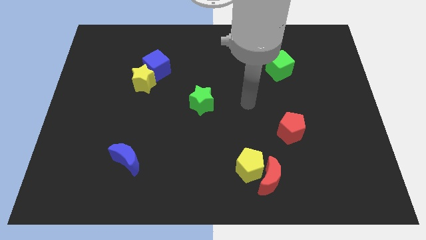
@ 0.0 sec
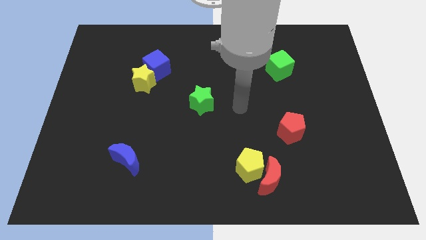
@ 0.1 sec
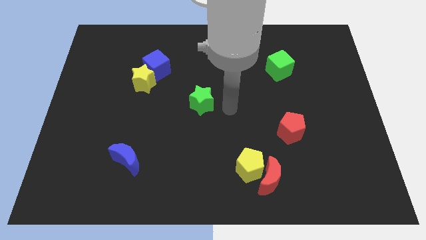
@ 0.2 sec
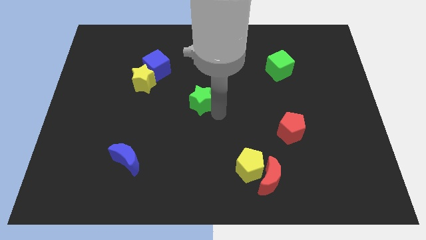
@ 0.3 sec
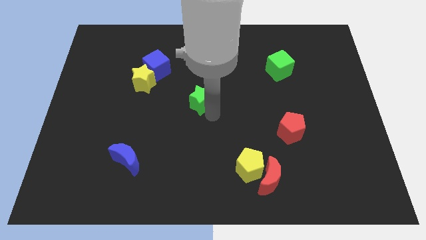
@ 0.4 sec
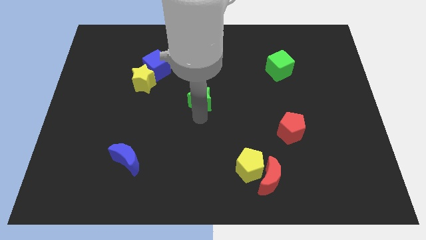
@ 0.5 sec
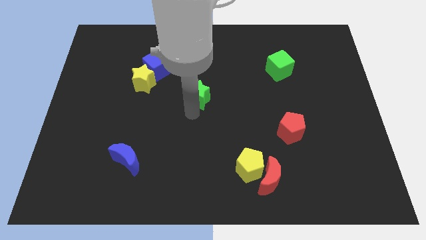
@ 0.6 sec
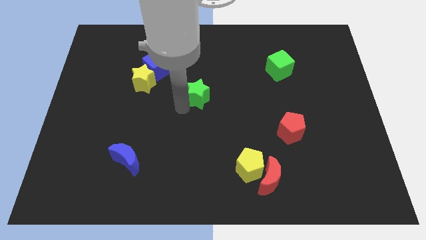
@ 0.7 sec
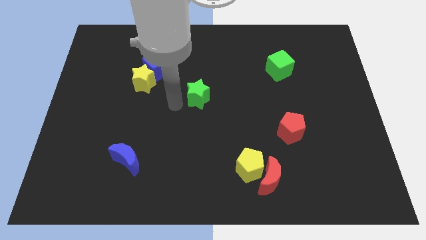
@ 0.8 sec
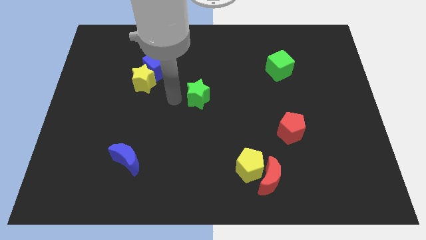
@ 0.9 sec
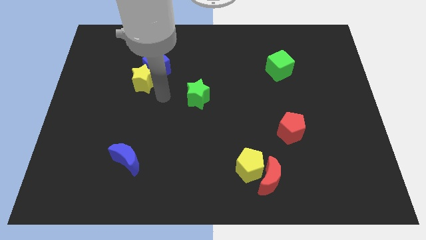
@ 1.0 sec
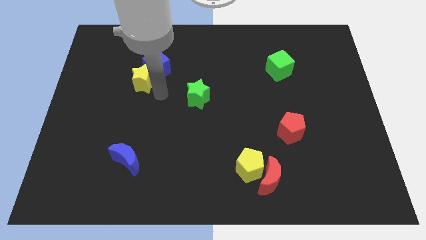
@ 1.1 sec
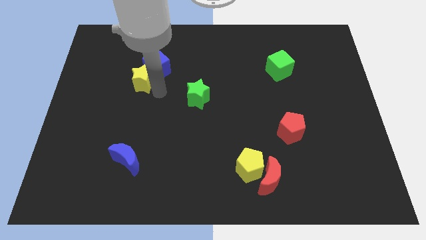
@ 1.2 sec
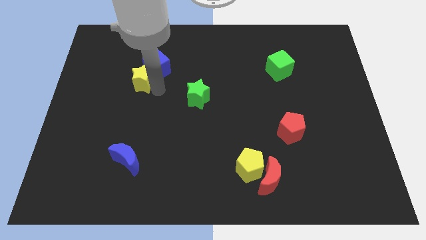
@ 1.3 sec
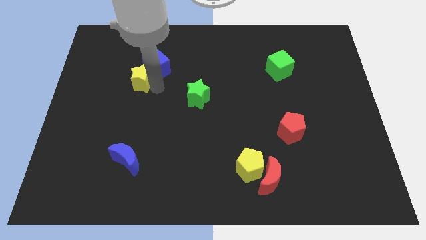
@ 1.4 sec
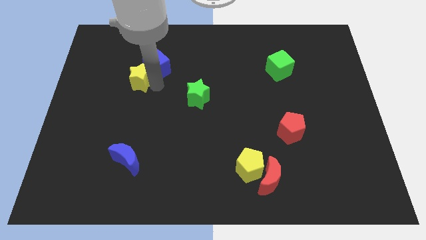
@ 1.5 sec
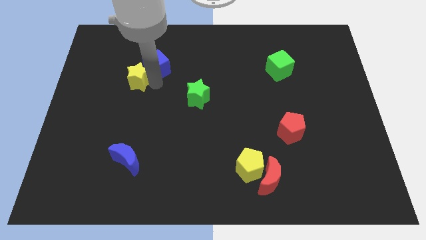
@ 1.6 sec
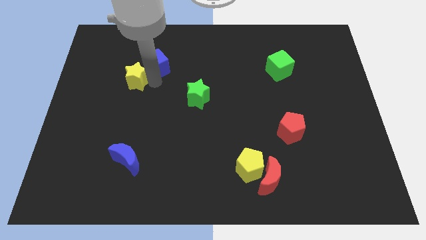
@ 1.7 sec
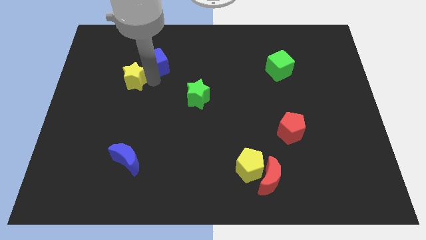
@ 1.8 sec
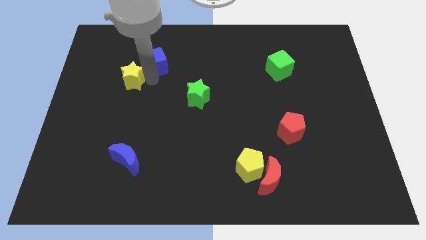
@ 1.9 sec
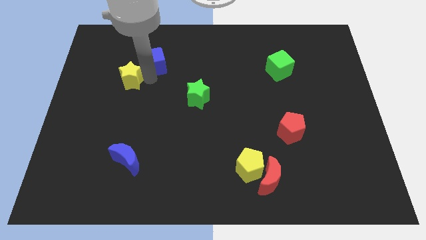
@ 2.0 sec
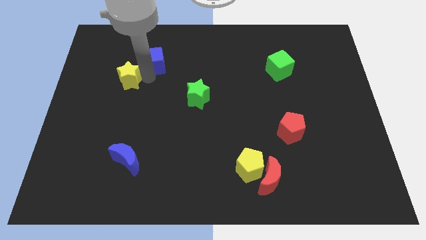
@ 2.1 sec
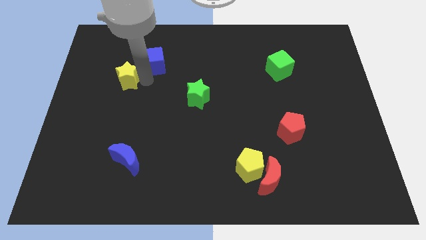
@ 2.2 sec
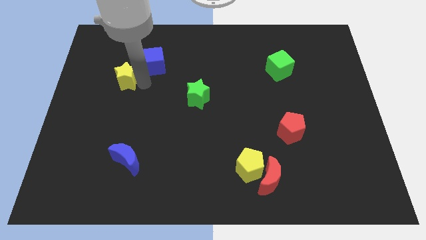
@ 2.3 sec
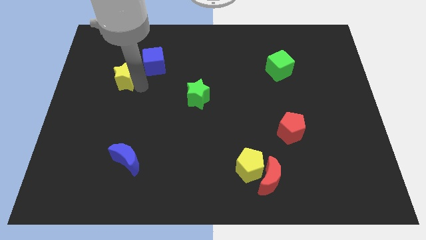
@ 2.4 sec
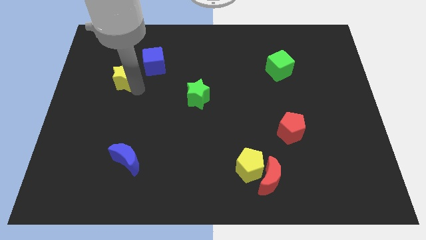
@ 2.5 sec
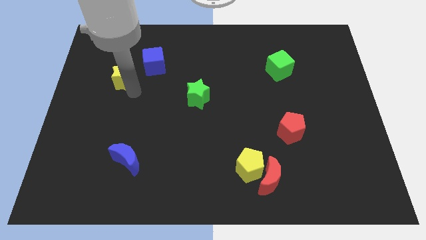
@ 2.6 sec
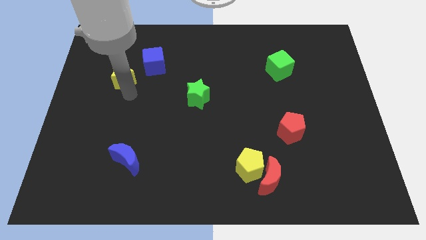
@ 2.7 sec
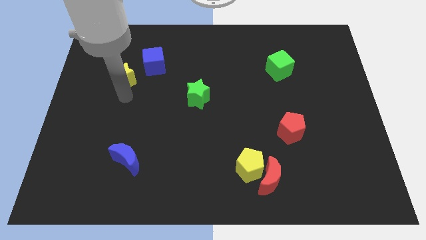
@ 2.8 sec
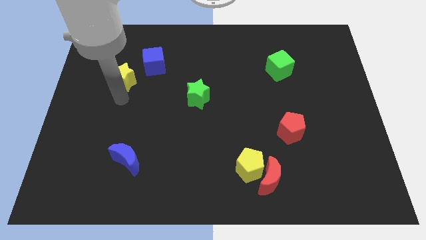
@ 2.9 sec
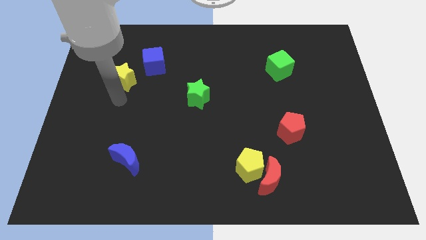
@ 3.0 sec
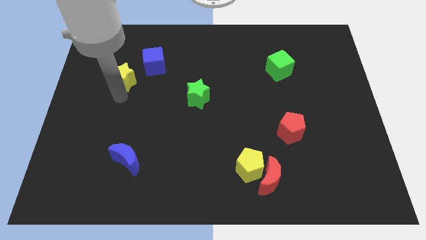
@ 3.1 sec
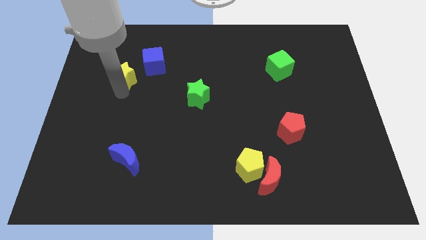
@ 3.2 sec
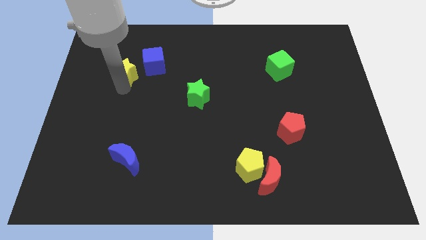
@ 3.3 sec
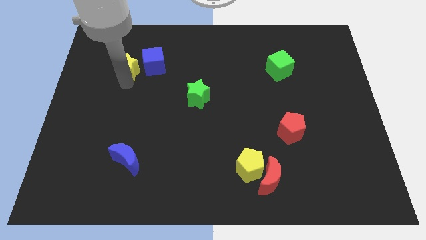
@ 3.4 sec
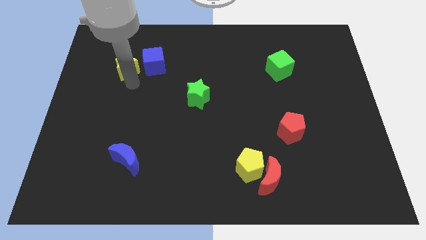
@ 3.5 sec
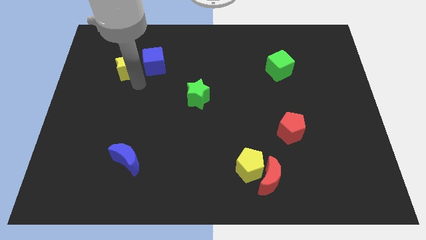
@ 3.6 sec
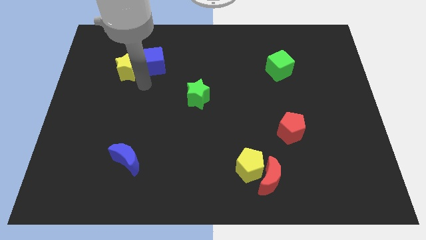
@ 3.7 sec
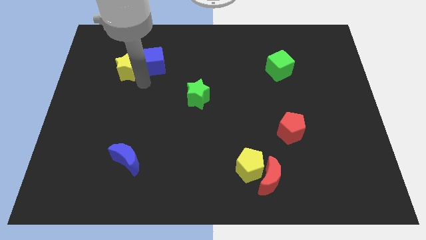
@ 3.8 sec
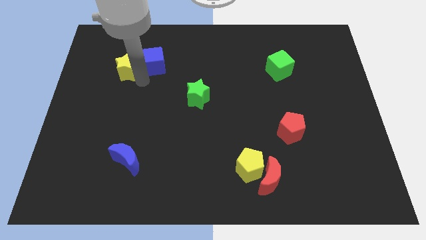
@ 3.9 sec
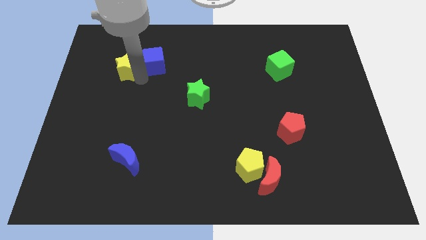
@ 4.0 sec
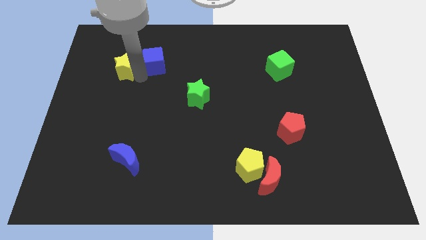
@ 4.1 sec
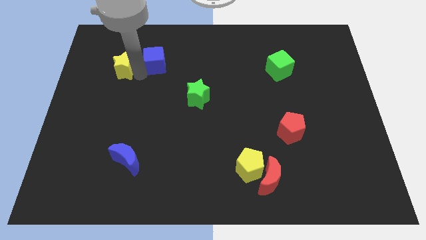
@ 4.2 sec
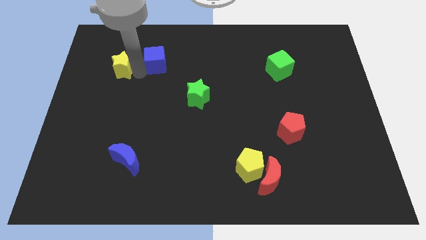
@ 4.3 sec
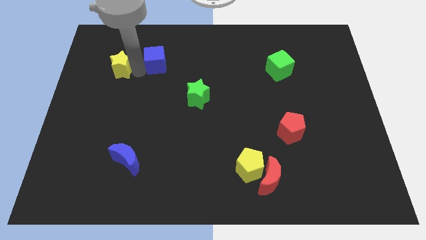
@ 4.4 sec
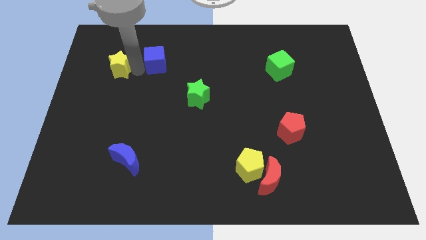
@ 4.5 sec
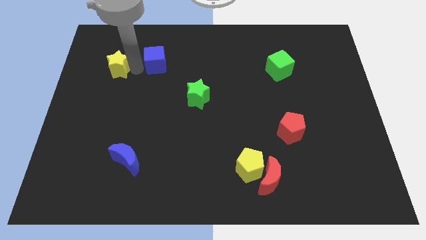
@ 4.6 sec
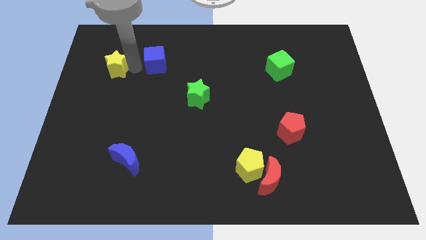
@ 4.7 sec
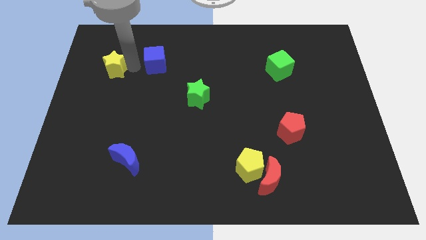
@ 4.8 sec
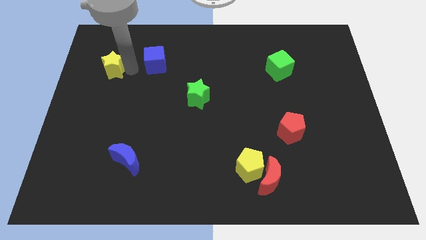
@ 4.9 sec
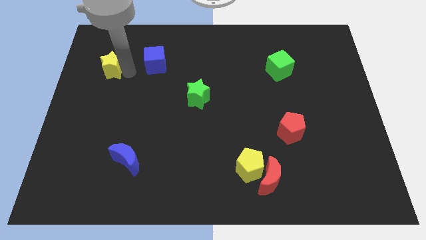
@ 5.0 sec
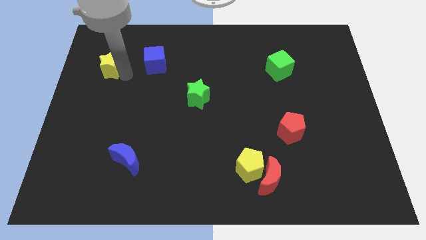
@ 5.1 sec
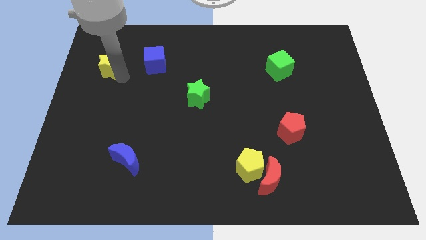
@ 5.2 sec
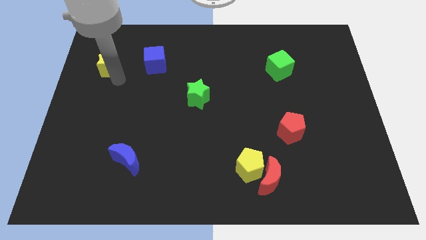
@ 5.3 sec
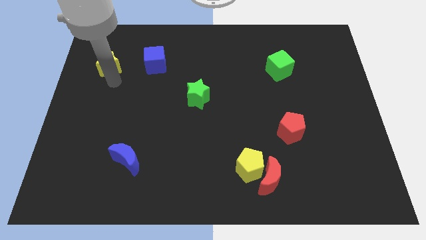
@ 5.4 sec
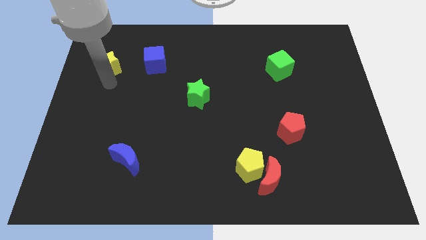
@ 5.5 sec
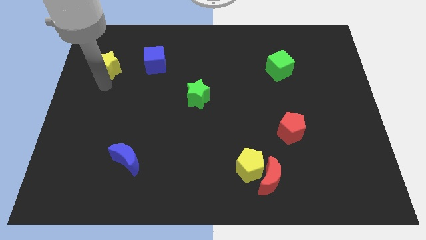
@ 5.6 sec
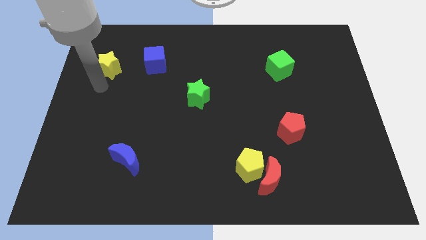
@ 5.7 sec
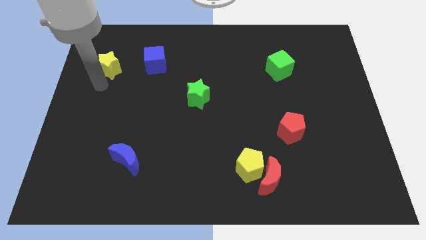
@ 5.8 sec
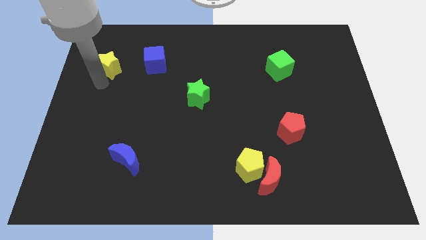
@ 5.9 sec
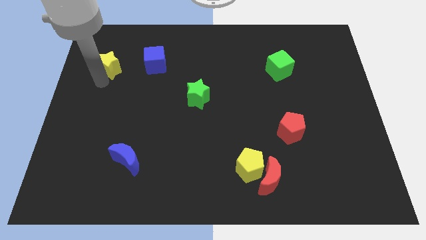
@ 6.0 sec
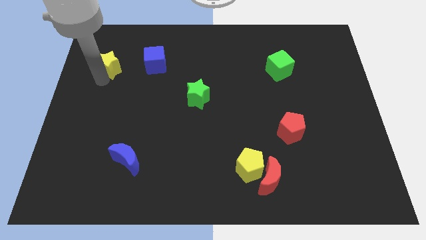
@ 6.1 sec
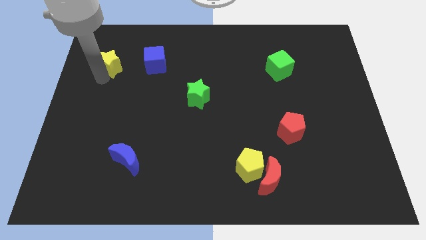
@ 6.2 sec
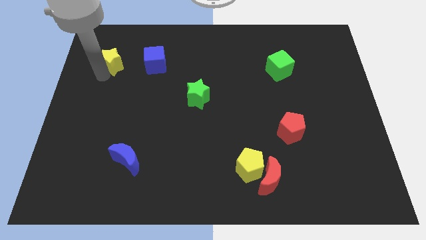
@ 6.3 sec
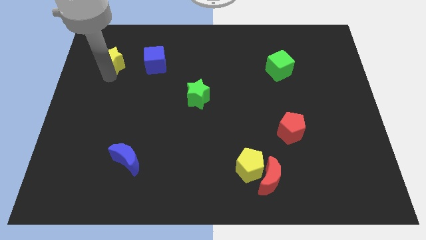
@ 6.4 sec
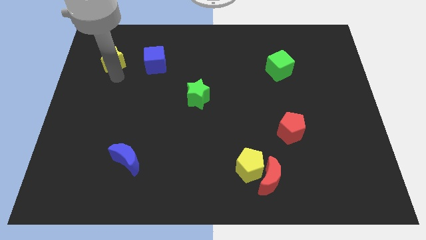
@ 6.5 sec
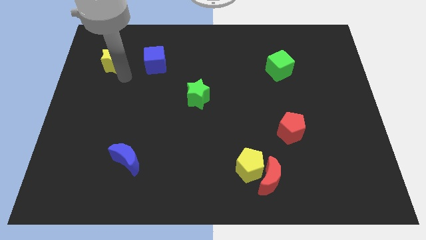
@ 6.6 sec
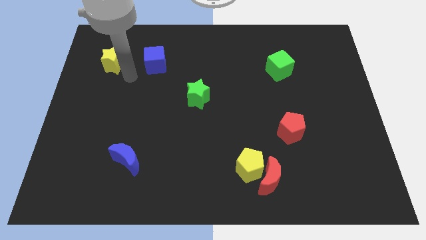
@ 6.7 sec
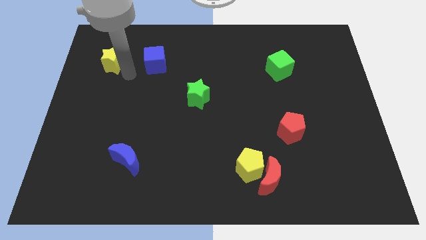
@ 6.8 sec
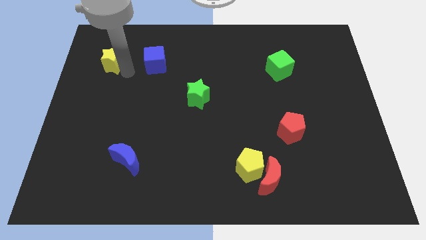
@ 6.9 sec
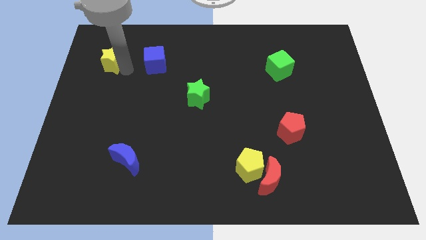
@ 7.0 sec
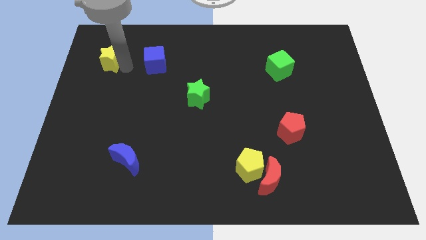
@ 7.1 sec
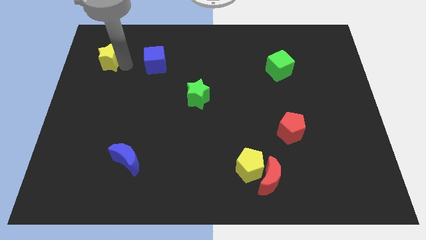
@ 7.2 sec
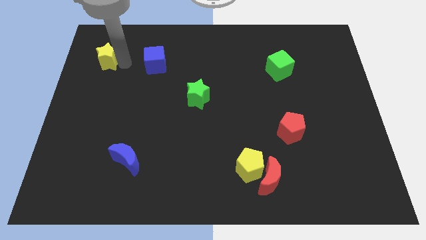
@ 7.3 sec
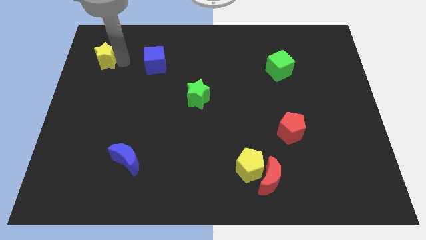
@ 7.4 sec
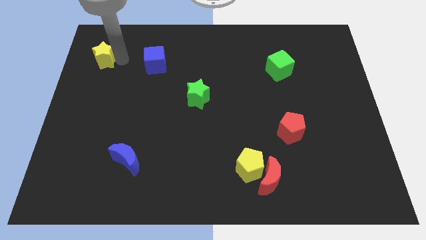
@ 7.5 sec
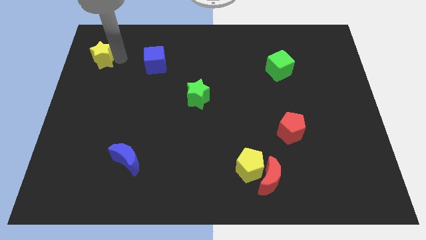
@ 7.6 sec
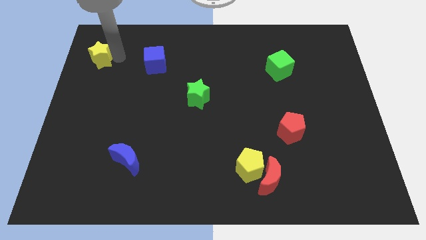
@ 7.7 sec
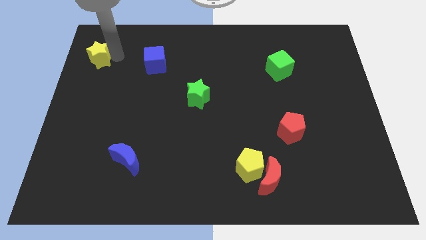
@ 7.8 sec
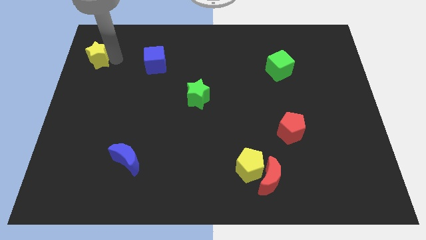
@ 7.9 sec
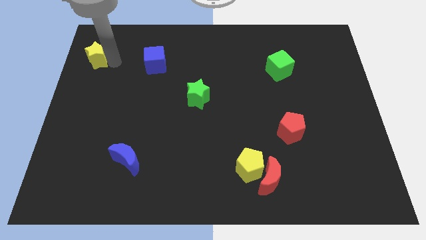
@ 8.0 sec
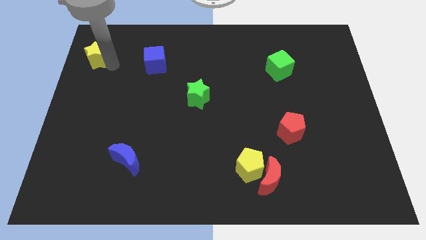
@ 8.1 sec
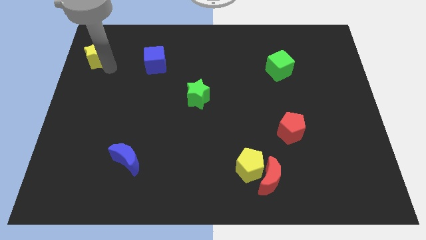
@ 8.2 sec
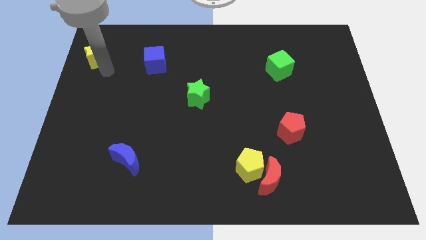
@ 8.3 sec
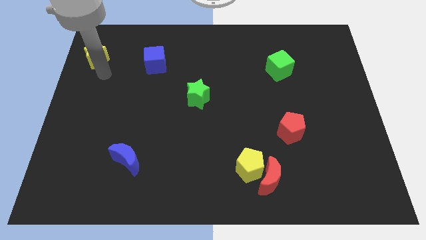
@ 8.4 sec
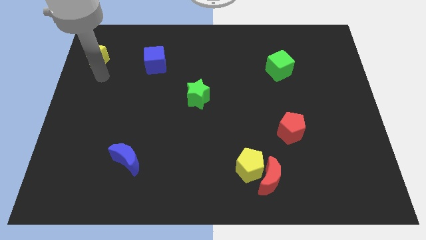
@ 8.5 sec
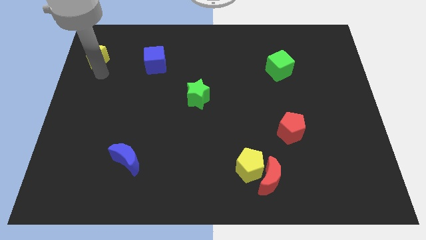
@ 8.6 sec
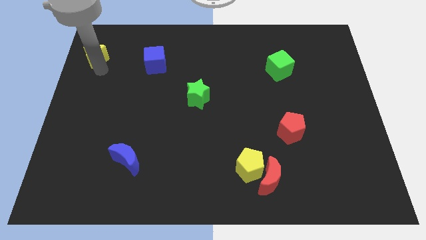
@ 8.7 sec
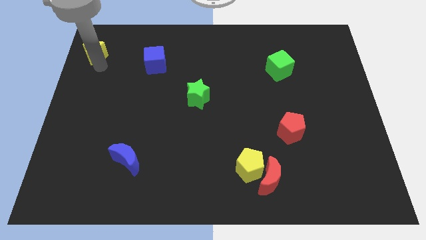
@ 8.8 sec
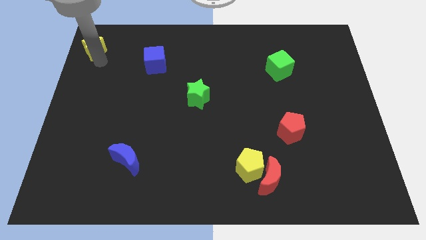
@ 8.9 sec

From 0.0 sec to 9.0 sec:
move the yellow star to the upper left corner
